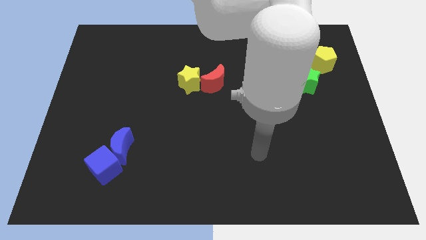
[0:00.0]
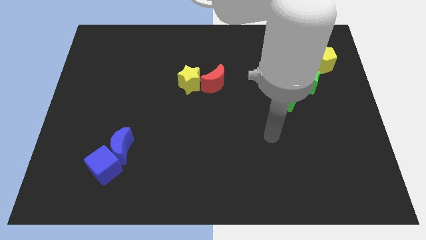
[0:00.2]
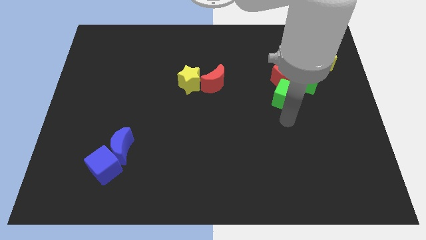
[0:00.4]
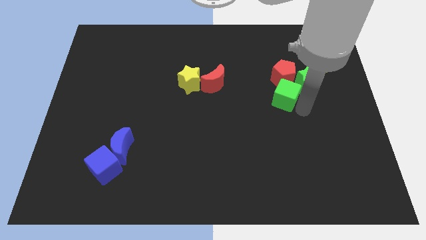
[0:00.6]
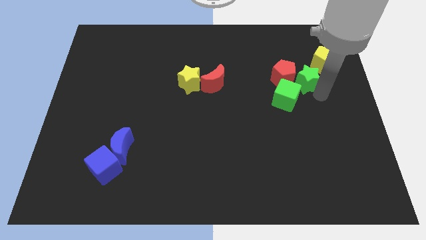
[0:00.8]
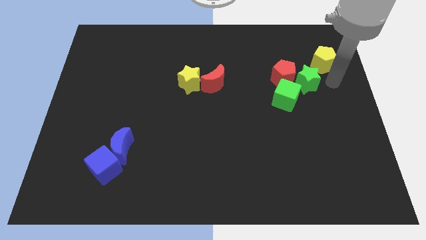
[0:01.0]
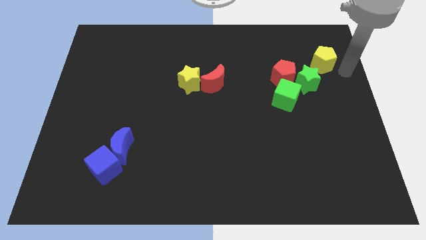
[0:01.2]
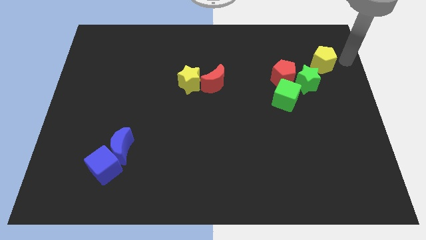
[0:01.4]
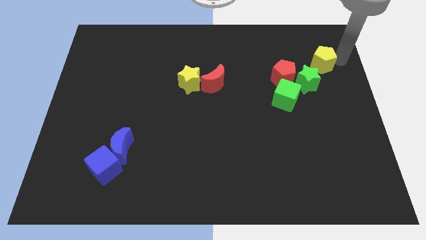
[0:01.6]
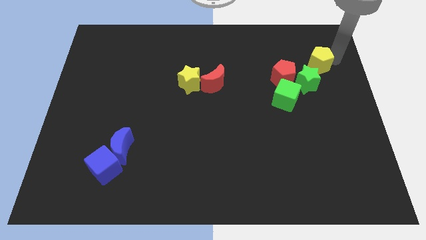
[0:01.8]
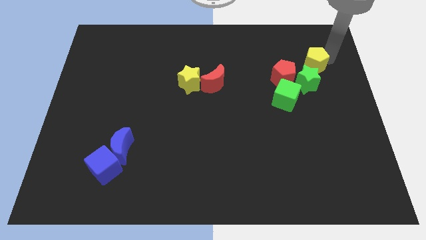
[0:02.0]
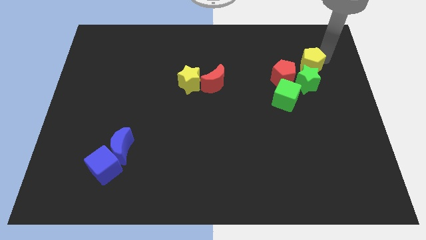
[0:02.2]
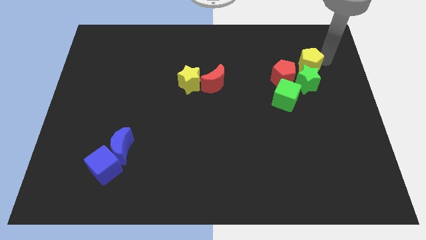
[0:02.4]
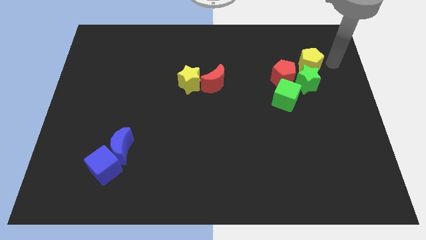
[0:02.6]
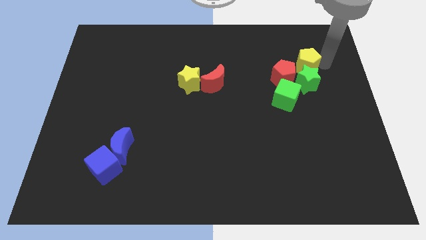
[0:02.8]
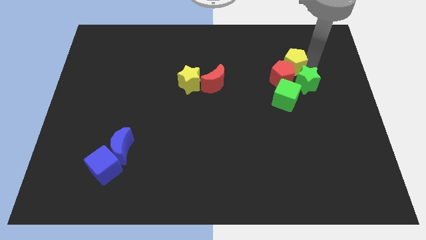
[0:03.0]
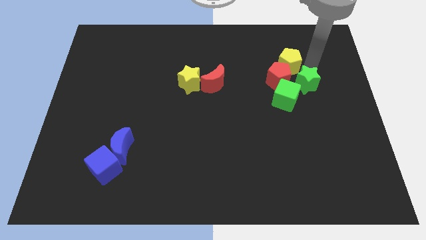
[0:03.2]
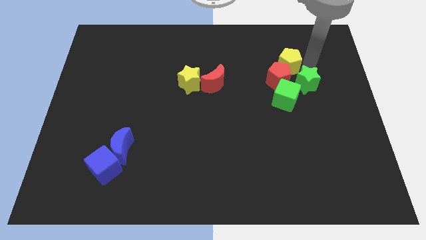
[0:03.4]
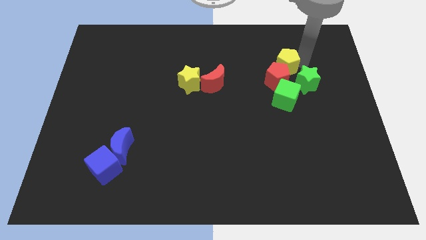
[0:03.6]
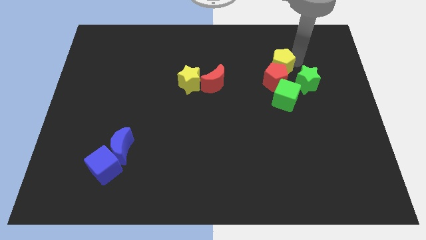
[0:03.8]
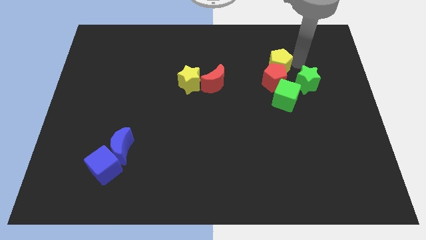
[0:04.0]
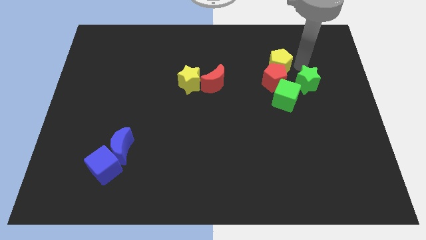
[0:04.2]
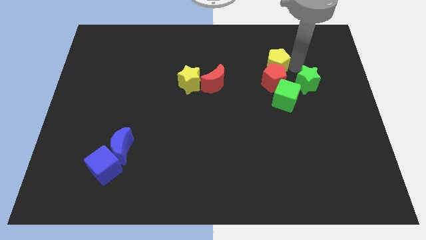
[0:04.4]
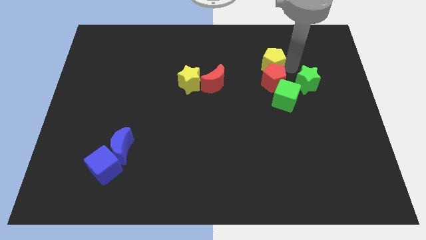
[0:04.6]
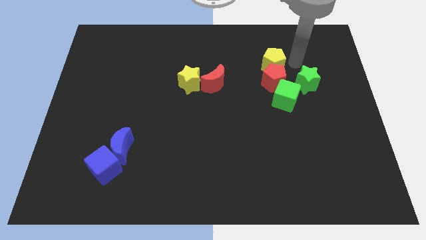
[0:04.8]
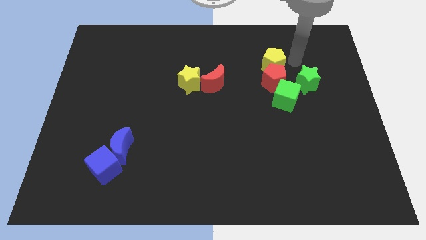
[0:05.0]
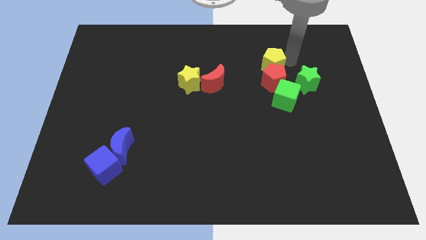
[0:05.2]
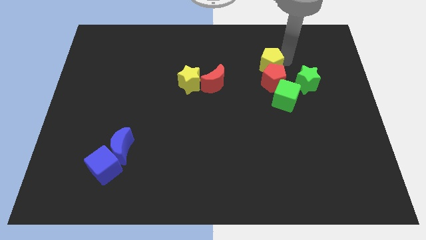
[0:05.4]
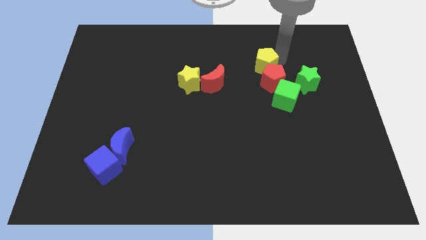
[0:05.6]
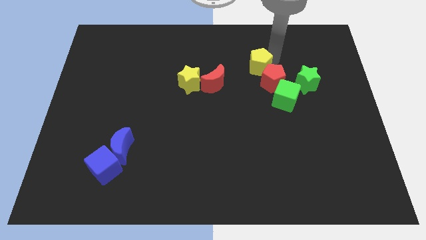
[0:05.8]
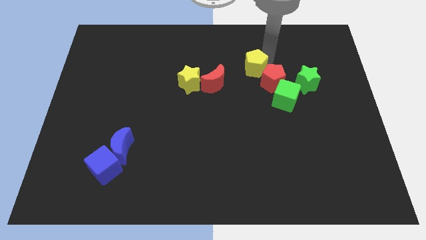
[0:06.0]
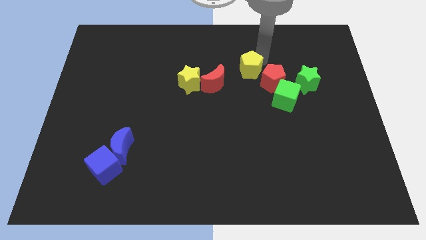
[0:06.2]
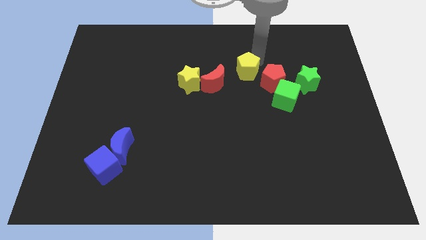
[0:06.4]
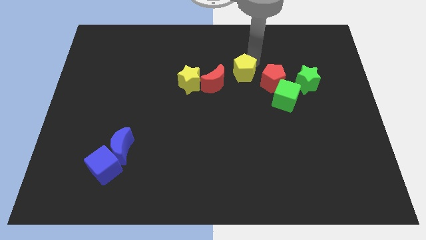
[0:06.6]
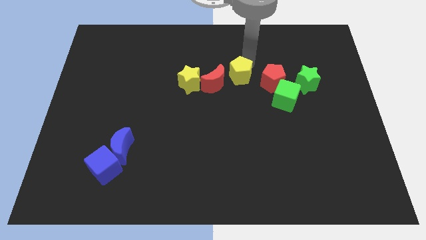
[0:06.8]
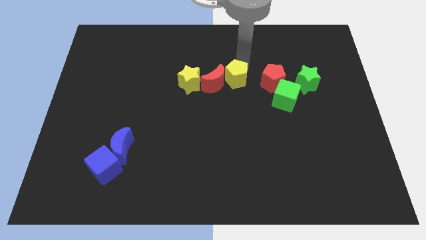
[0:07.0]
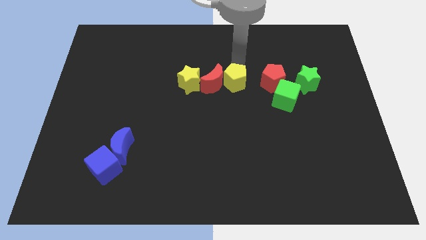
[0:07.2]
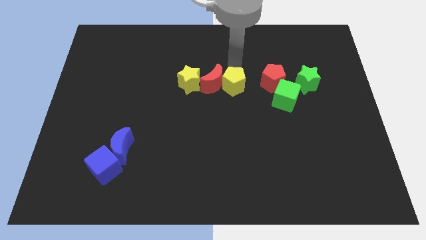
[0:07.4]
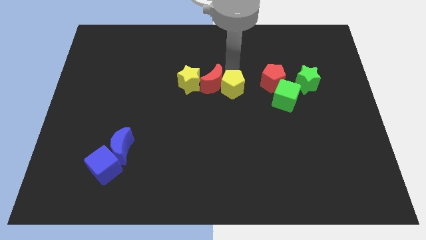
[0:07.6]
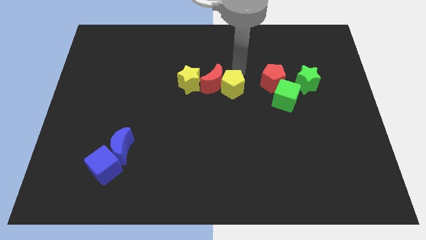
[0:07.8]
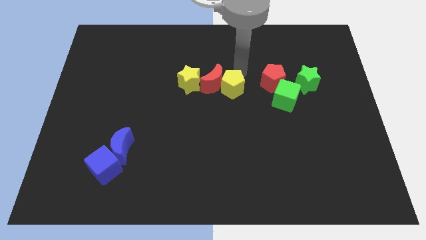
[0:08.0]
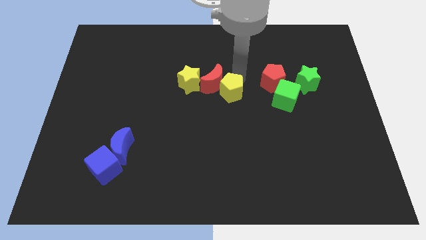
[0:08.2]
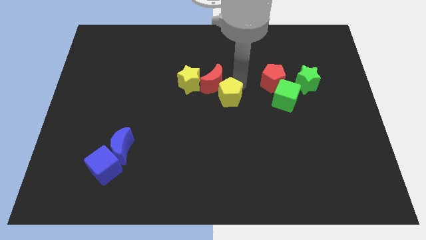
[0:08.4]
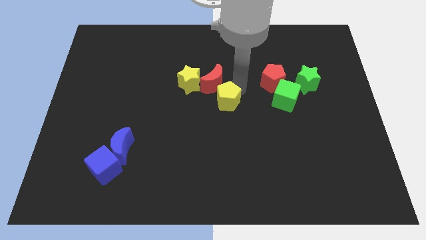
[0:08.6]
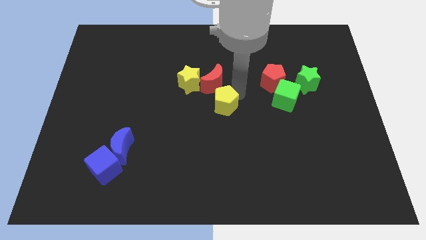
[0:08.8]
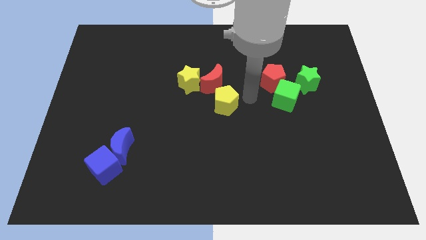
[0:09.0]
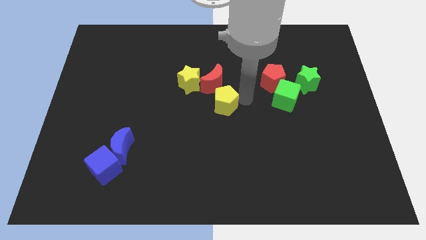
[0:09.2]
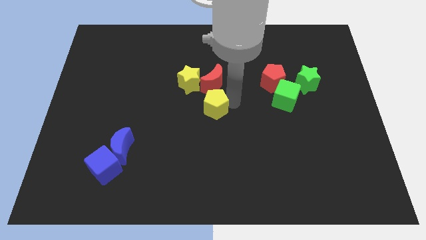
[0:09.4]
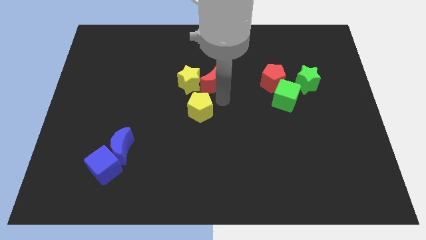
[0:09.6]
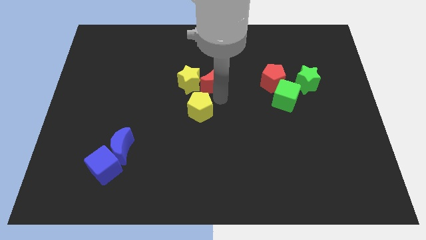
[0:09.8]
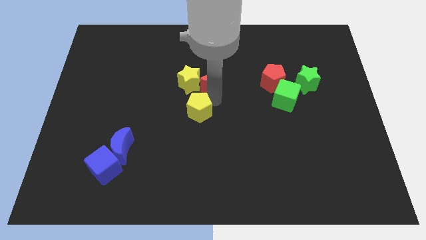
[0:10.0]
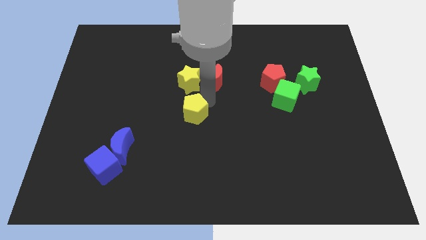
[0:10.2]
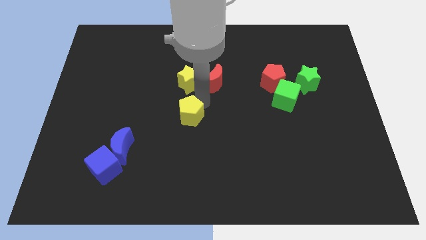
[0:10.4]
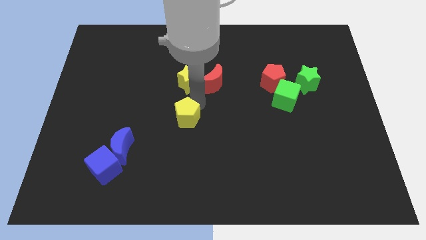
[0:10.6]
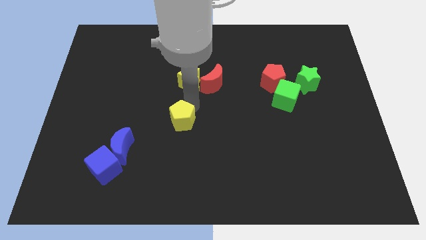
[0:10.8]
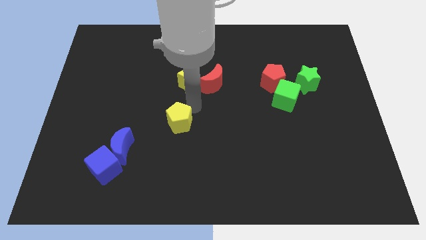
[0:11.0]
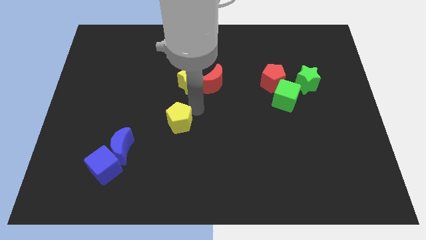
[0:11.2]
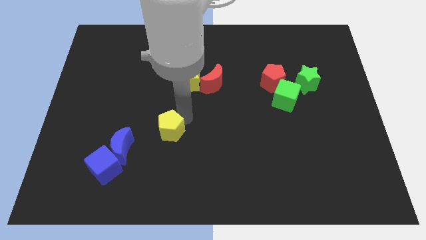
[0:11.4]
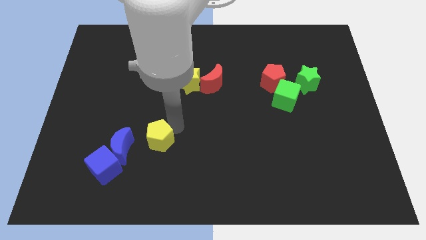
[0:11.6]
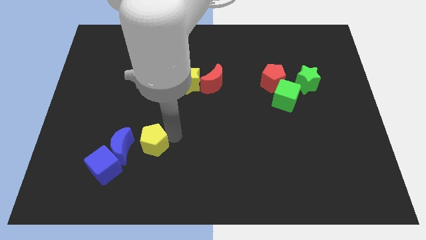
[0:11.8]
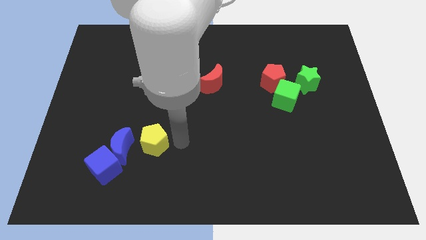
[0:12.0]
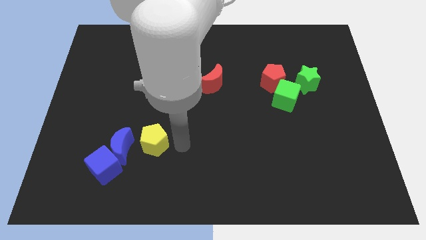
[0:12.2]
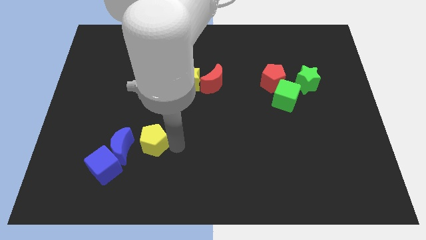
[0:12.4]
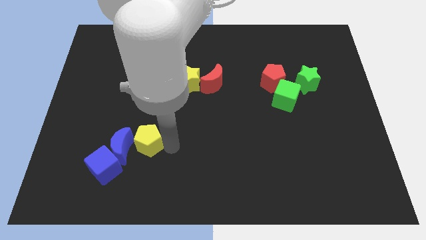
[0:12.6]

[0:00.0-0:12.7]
put the yellow pentagon close to the blue moon

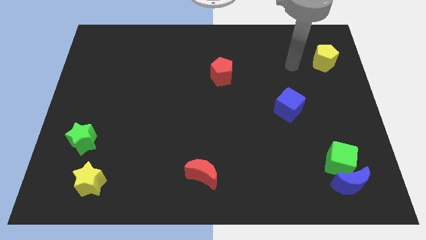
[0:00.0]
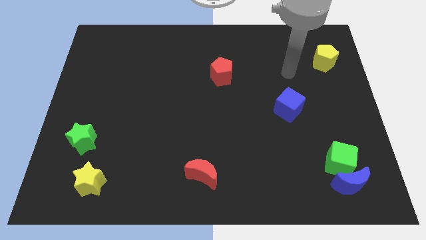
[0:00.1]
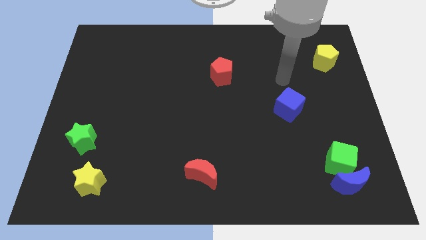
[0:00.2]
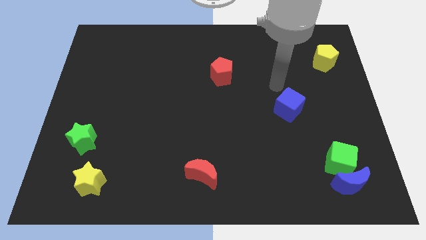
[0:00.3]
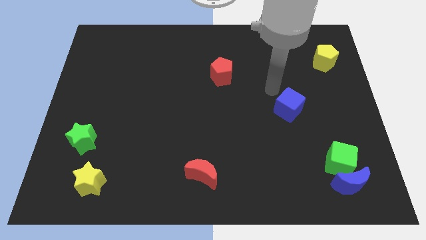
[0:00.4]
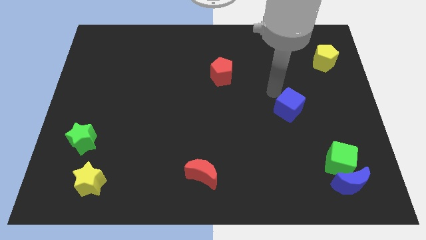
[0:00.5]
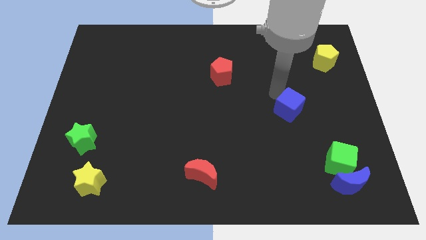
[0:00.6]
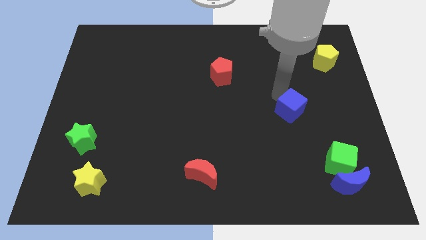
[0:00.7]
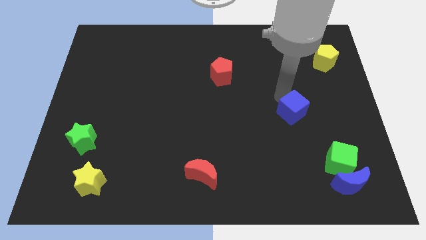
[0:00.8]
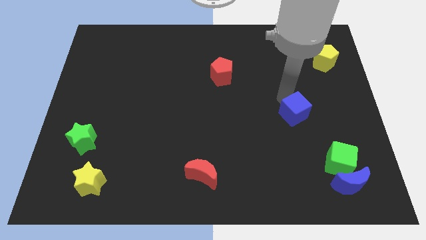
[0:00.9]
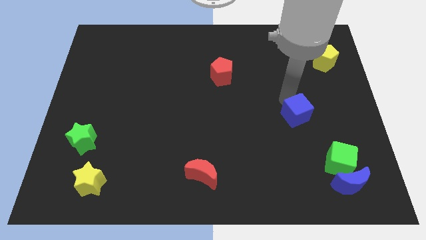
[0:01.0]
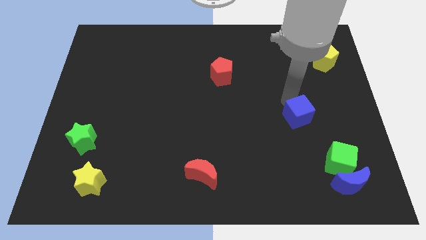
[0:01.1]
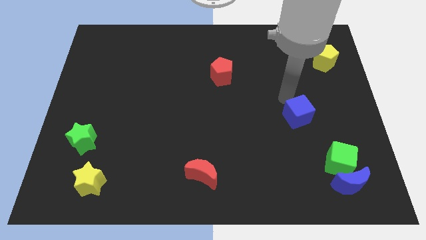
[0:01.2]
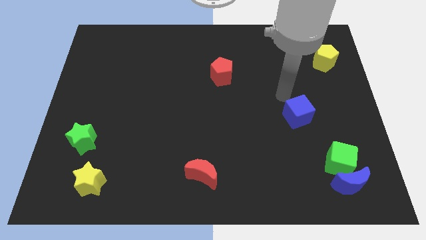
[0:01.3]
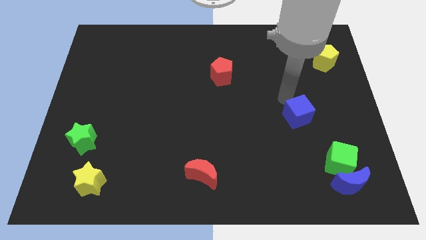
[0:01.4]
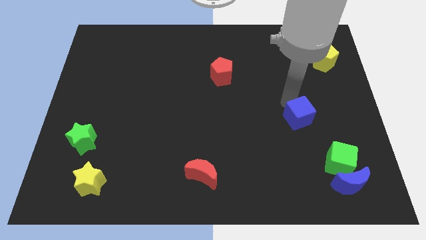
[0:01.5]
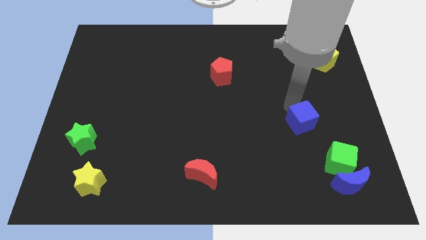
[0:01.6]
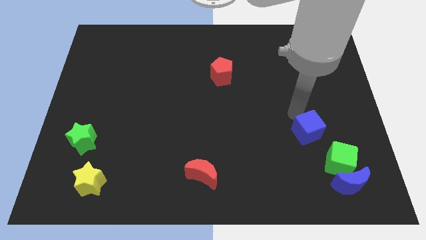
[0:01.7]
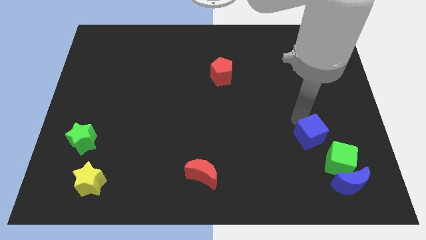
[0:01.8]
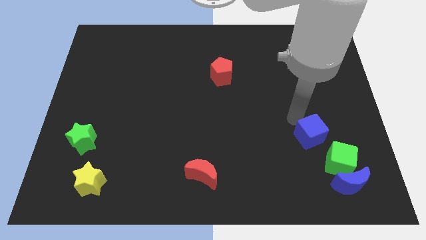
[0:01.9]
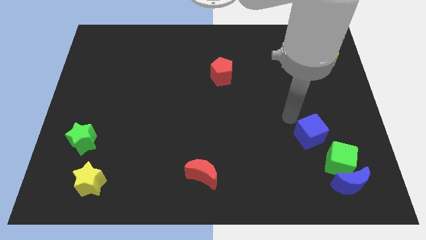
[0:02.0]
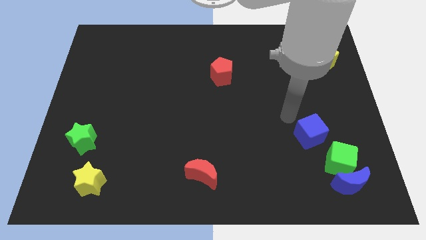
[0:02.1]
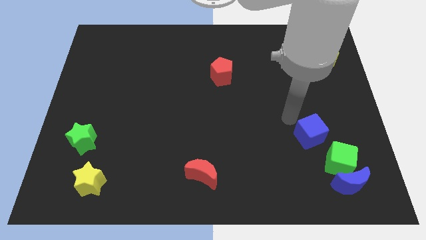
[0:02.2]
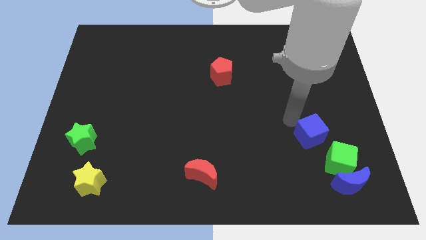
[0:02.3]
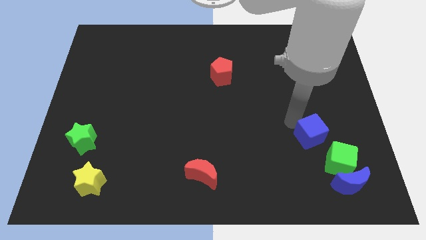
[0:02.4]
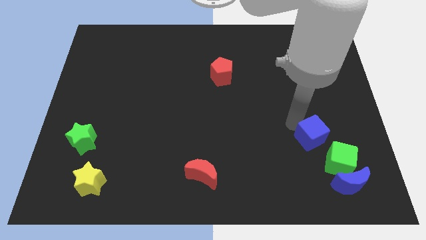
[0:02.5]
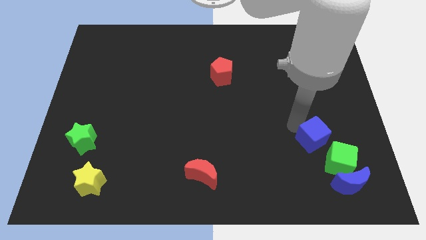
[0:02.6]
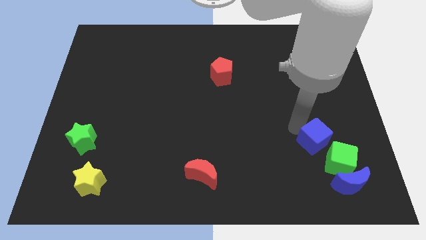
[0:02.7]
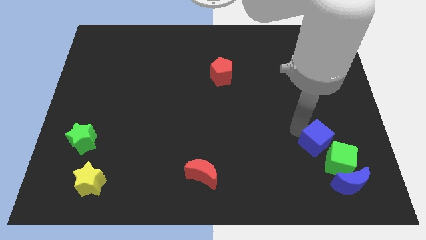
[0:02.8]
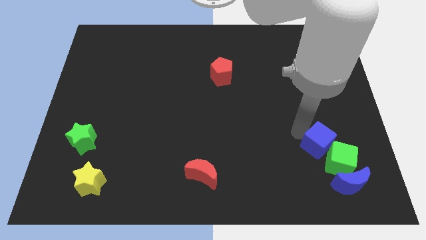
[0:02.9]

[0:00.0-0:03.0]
slide the blue cube to the green cube
